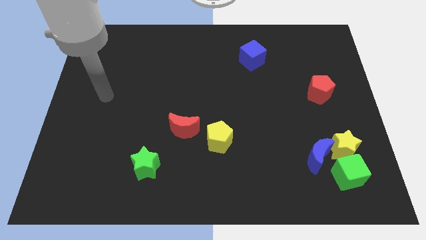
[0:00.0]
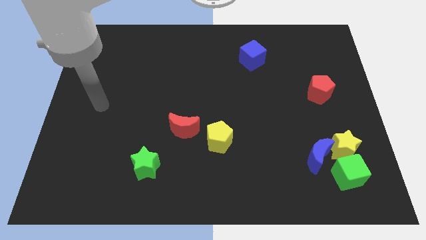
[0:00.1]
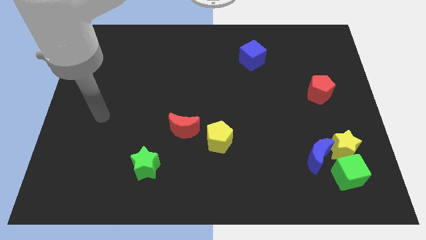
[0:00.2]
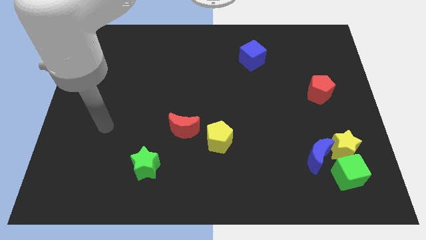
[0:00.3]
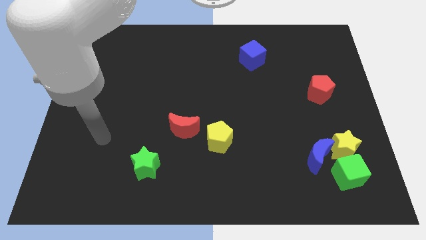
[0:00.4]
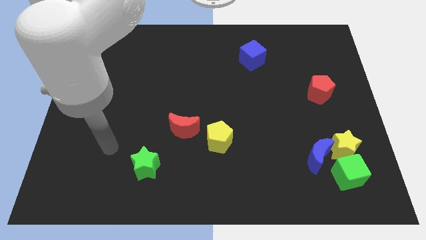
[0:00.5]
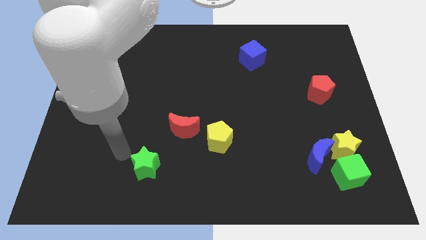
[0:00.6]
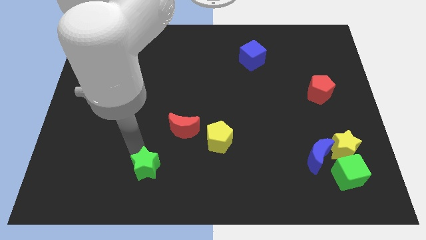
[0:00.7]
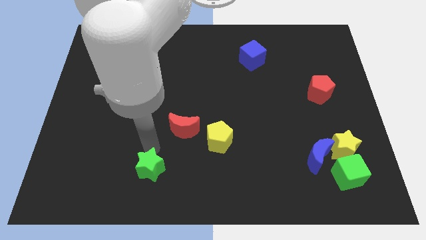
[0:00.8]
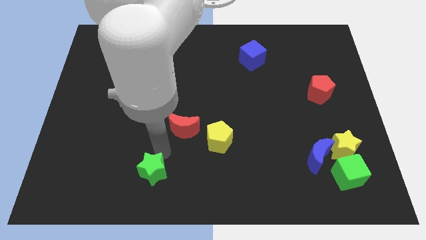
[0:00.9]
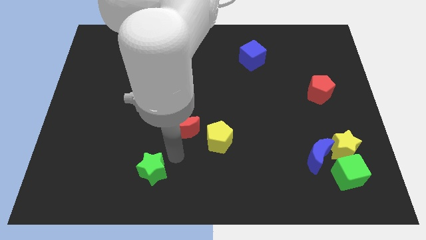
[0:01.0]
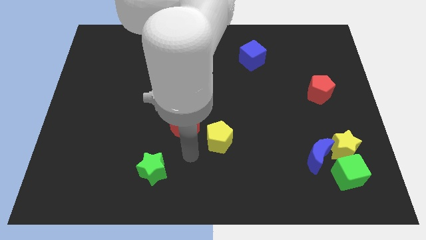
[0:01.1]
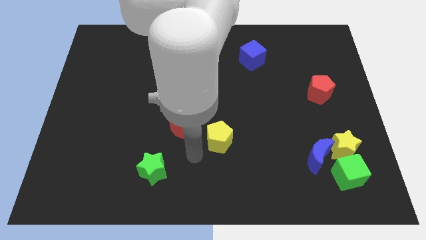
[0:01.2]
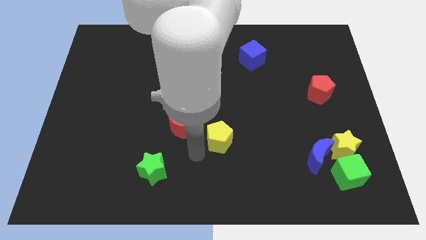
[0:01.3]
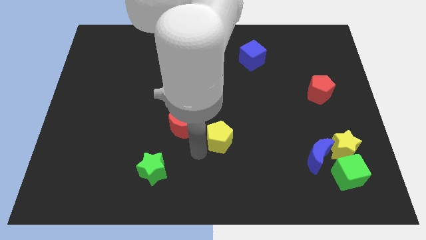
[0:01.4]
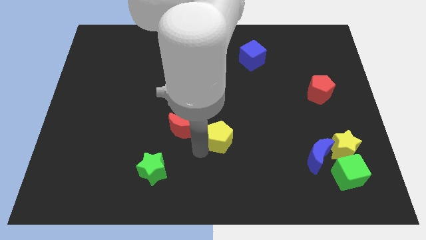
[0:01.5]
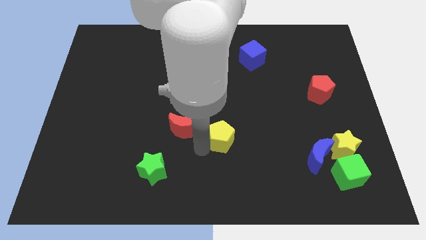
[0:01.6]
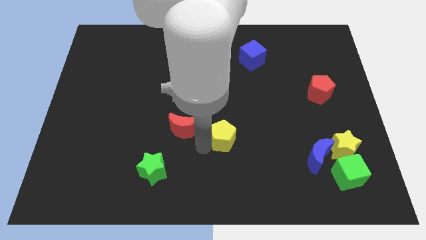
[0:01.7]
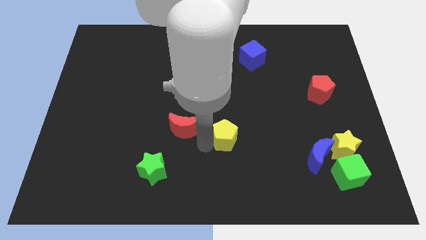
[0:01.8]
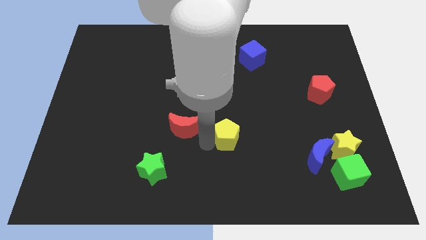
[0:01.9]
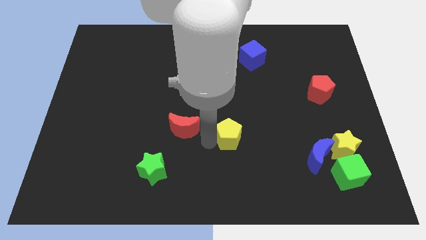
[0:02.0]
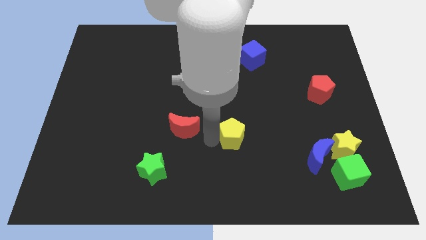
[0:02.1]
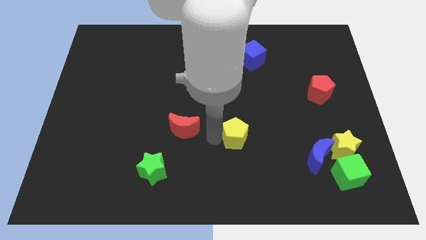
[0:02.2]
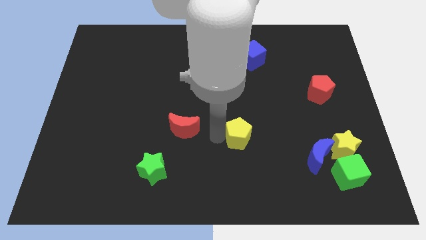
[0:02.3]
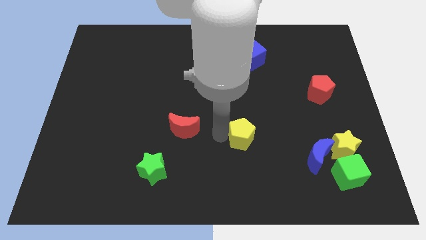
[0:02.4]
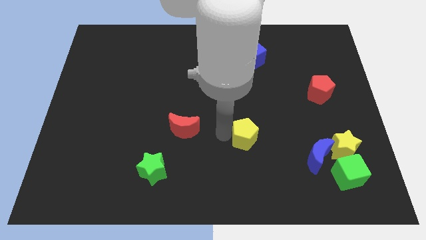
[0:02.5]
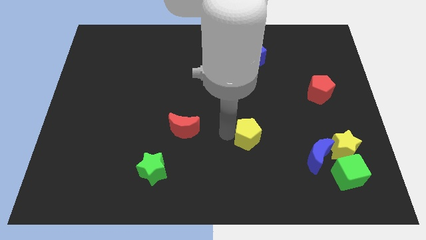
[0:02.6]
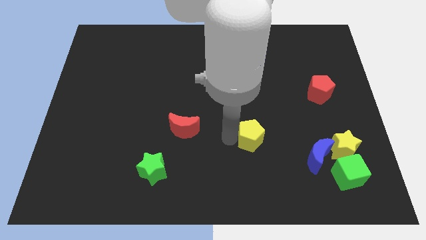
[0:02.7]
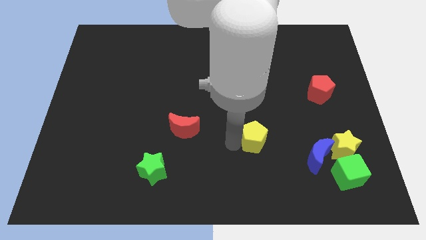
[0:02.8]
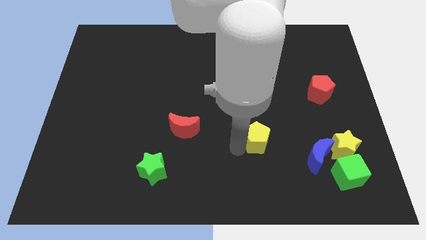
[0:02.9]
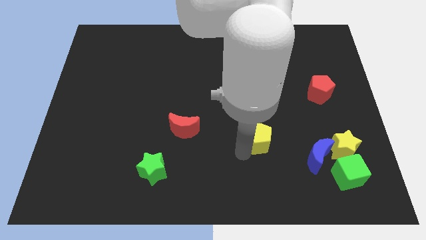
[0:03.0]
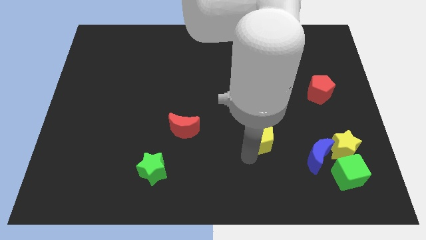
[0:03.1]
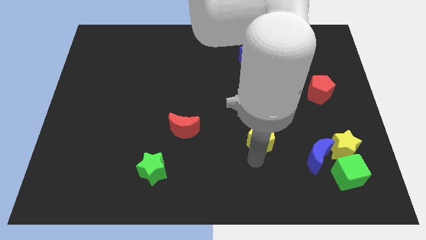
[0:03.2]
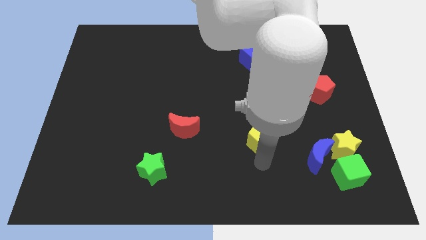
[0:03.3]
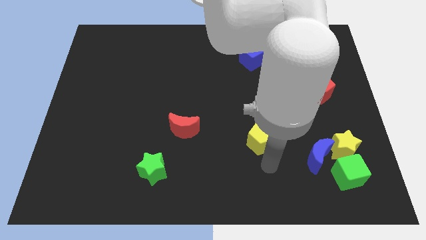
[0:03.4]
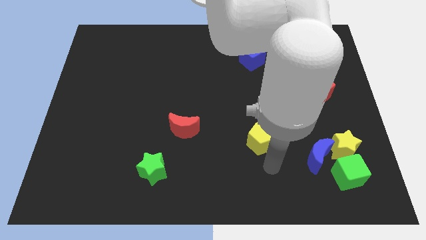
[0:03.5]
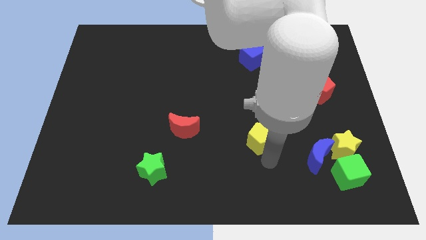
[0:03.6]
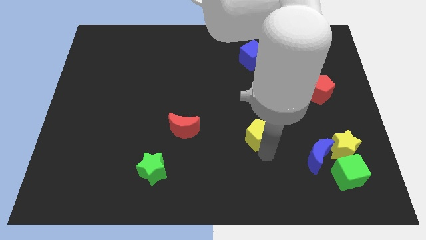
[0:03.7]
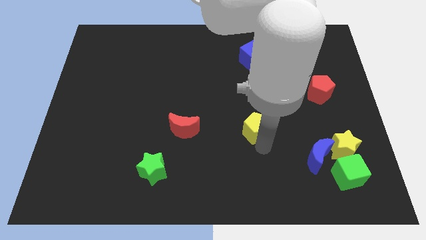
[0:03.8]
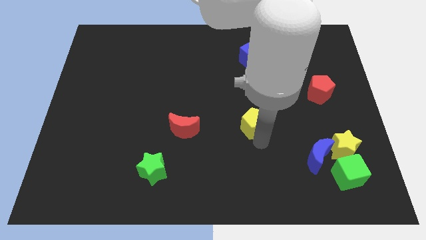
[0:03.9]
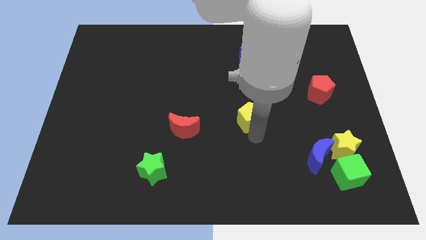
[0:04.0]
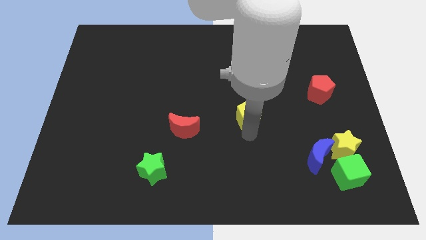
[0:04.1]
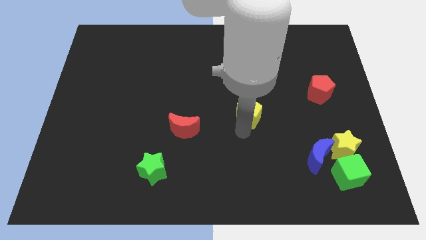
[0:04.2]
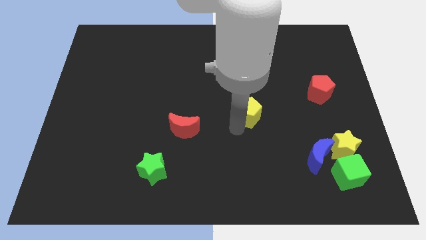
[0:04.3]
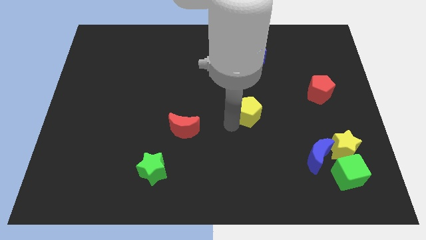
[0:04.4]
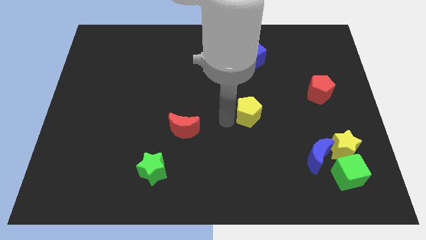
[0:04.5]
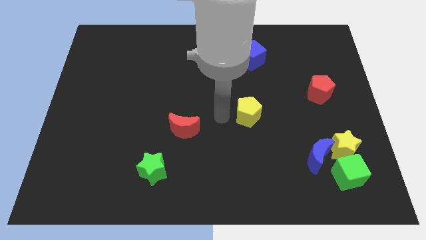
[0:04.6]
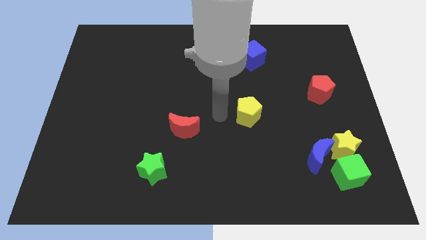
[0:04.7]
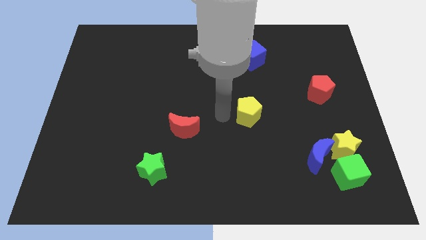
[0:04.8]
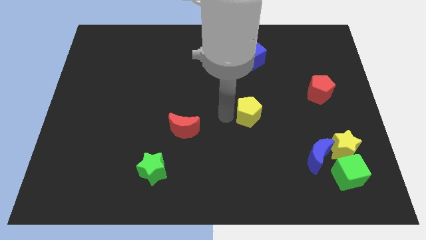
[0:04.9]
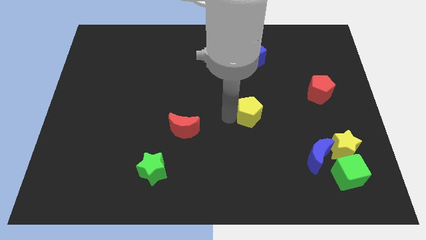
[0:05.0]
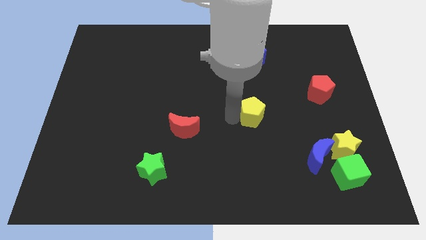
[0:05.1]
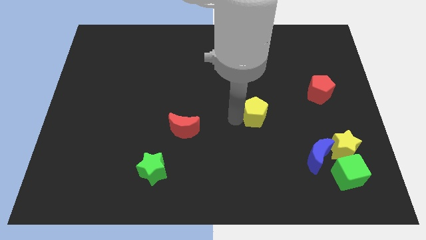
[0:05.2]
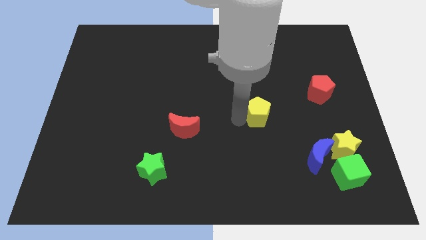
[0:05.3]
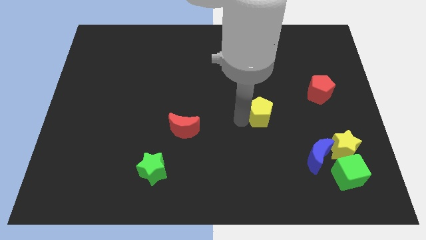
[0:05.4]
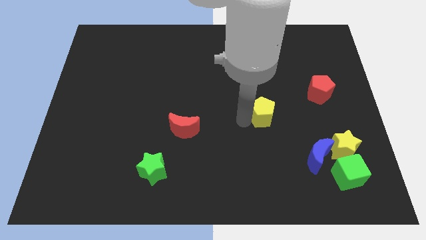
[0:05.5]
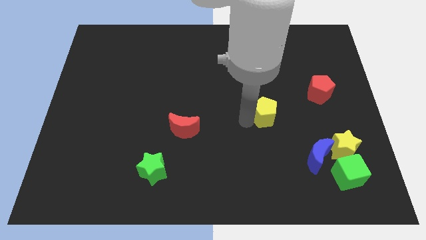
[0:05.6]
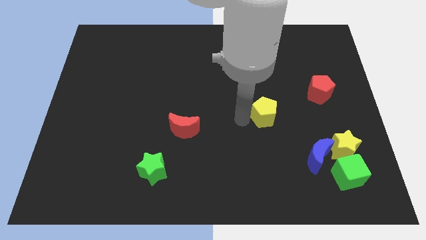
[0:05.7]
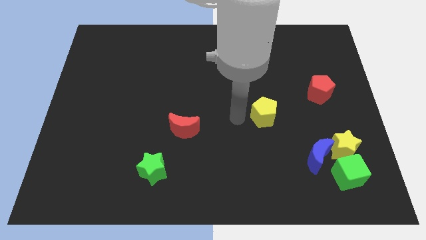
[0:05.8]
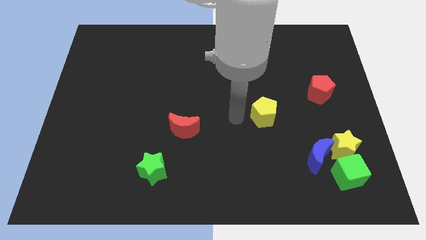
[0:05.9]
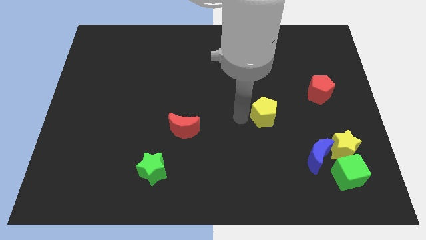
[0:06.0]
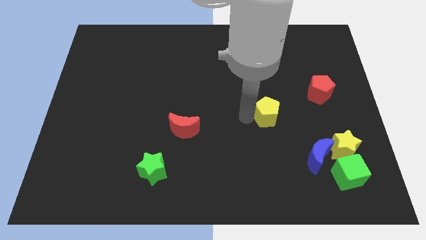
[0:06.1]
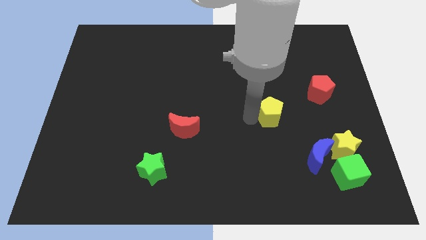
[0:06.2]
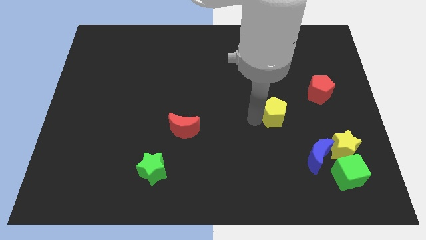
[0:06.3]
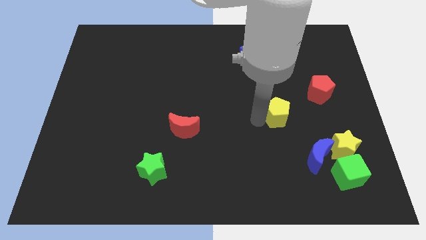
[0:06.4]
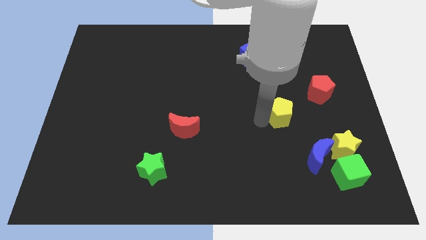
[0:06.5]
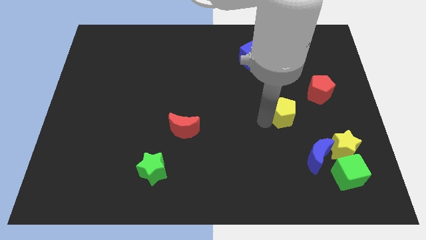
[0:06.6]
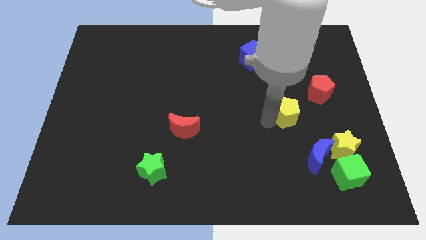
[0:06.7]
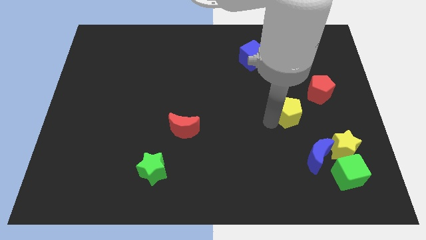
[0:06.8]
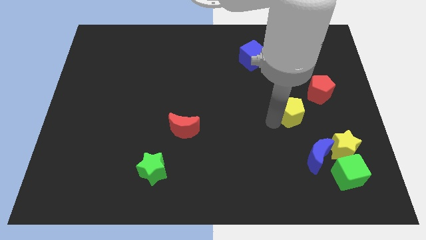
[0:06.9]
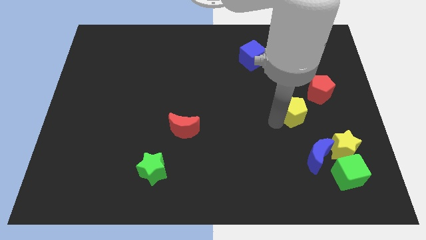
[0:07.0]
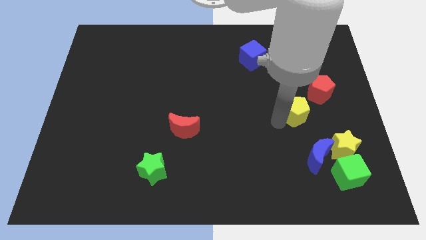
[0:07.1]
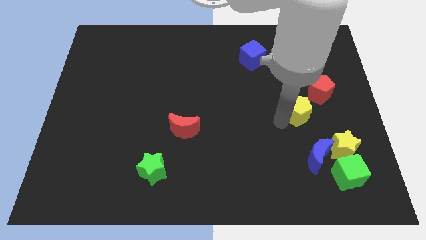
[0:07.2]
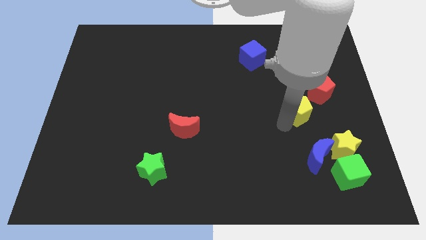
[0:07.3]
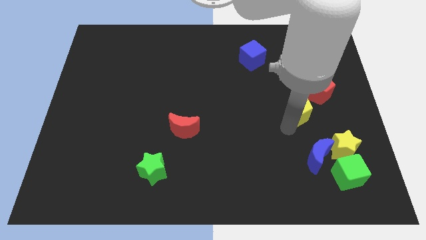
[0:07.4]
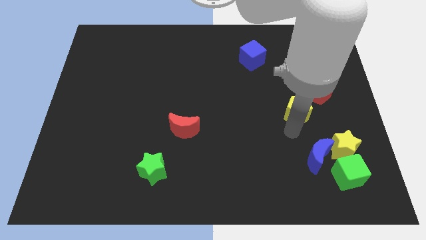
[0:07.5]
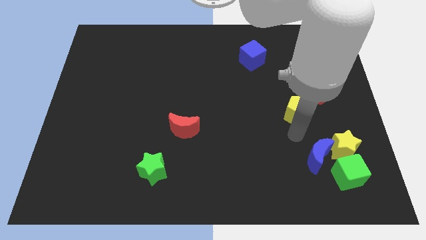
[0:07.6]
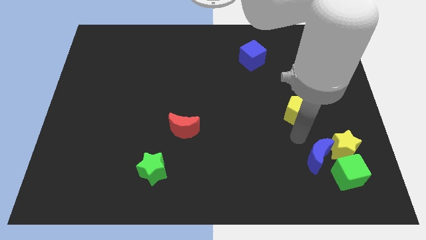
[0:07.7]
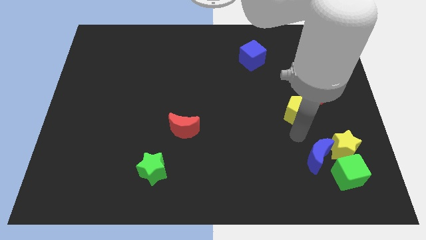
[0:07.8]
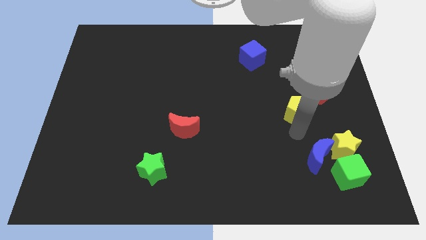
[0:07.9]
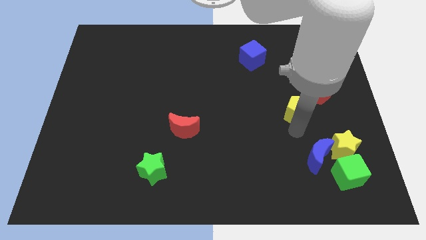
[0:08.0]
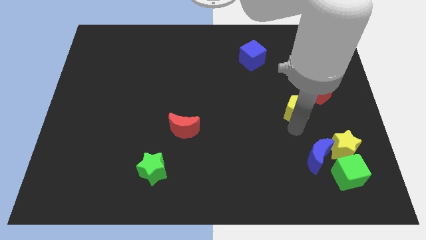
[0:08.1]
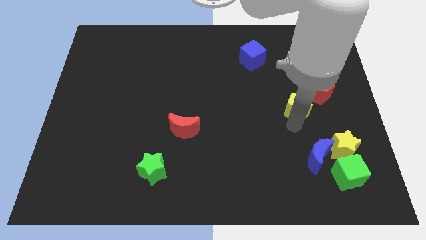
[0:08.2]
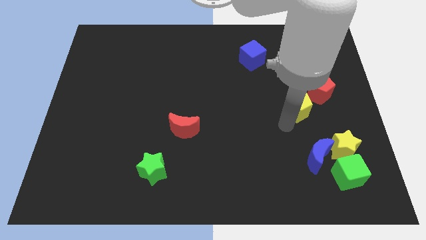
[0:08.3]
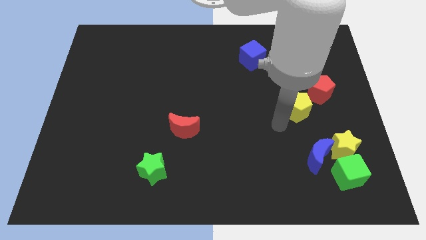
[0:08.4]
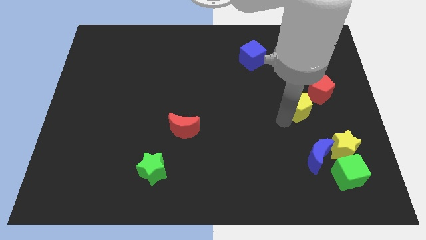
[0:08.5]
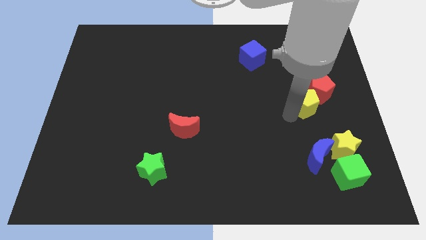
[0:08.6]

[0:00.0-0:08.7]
push the yellow pentagon to the red pentagon
